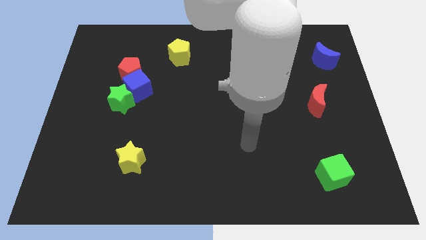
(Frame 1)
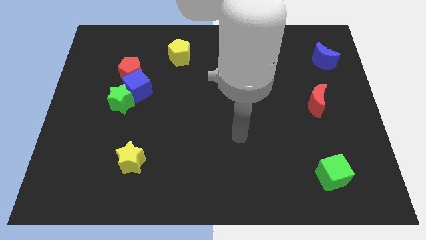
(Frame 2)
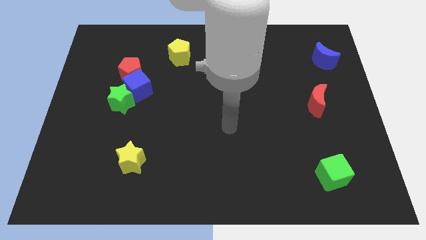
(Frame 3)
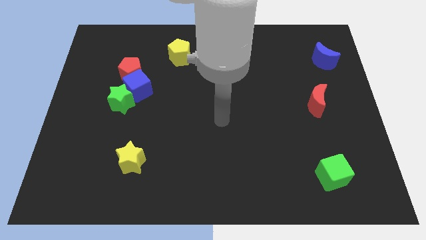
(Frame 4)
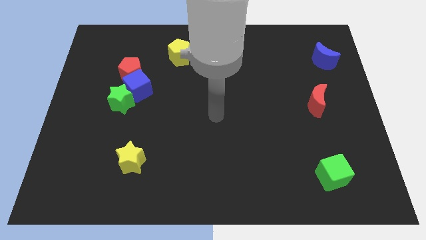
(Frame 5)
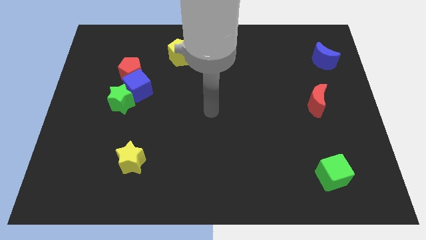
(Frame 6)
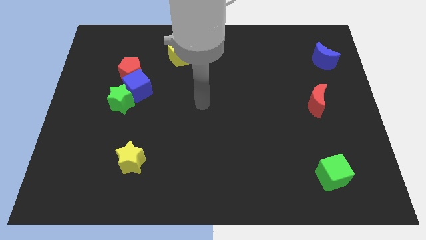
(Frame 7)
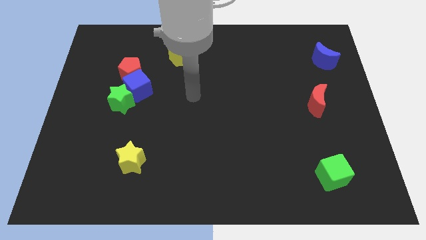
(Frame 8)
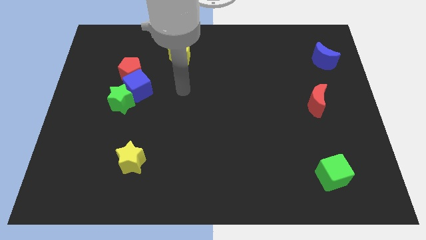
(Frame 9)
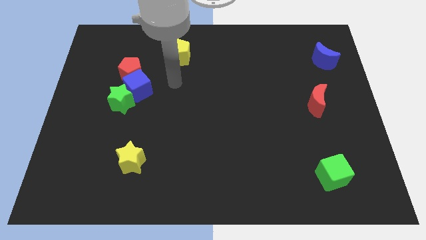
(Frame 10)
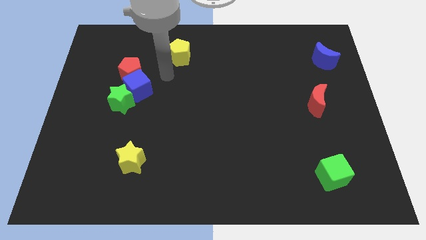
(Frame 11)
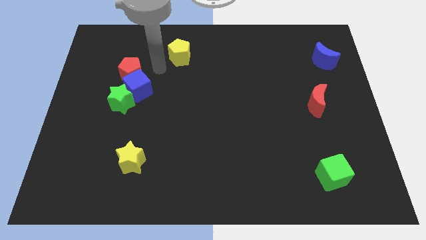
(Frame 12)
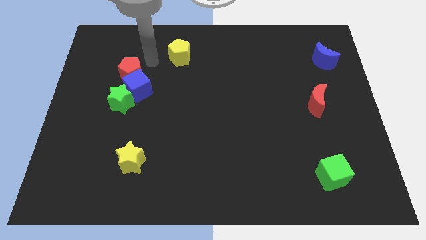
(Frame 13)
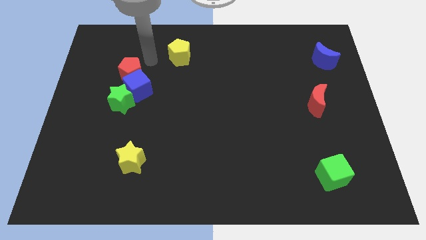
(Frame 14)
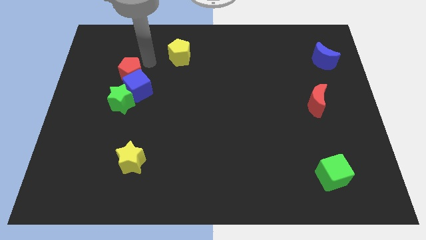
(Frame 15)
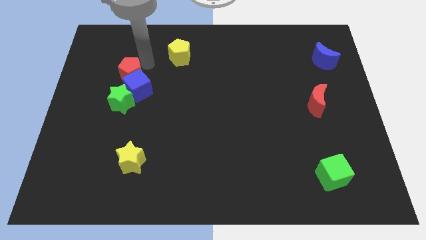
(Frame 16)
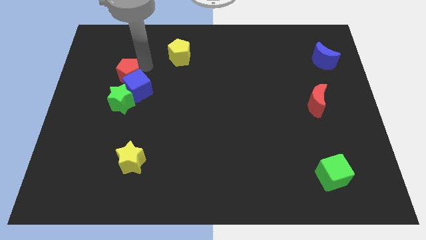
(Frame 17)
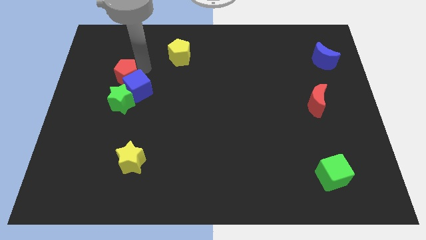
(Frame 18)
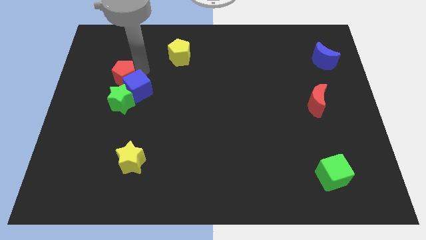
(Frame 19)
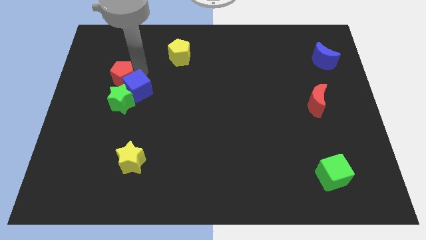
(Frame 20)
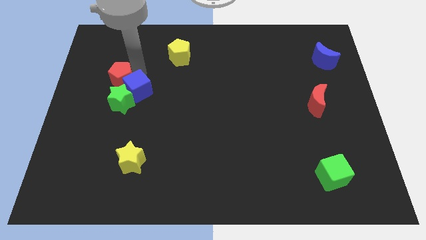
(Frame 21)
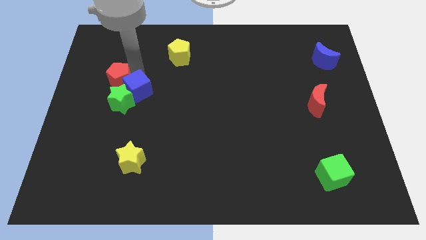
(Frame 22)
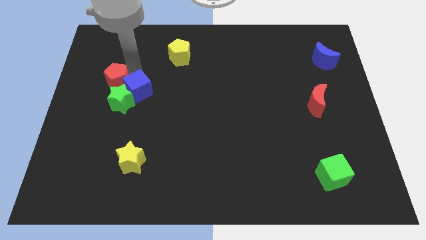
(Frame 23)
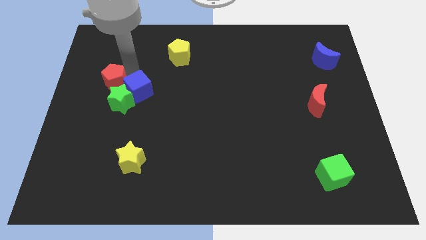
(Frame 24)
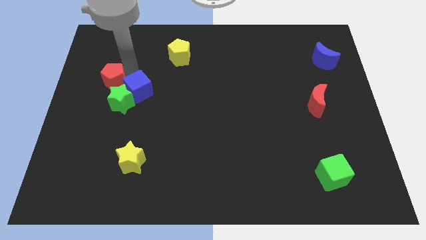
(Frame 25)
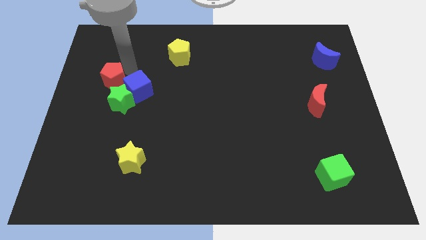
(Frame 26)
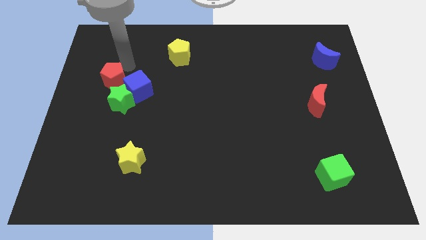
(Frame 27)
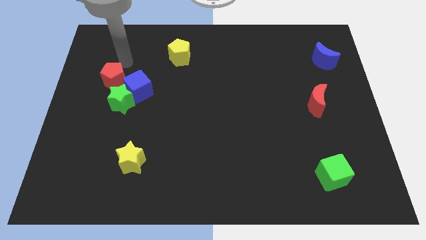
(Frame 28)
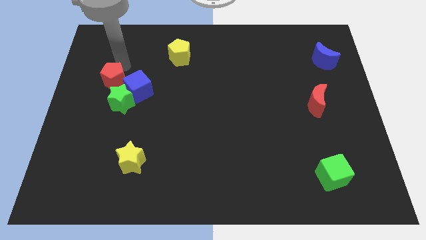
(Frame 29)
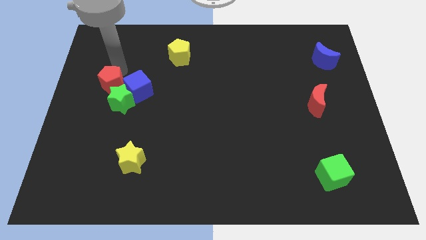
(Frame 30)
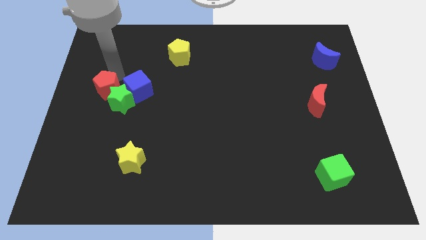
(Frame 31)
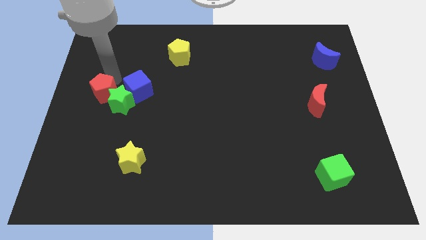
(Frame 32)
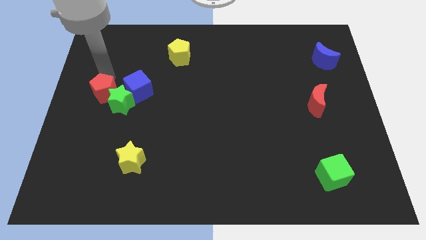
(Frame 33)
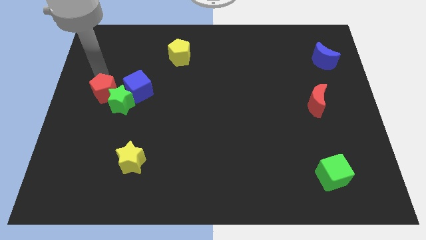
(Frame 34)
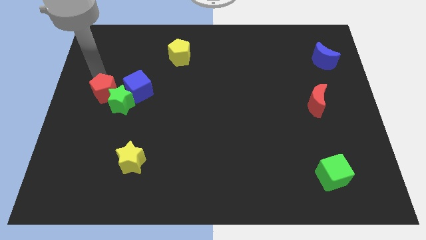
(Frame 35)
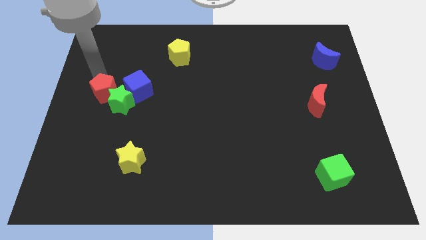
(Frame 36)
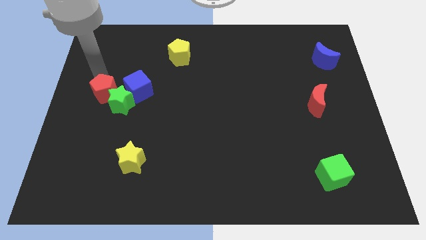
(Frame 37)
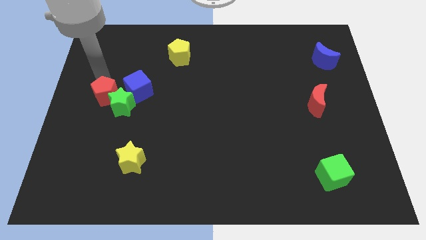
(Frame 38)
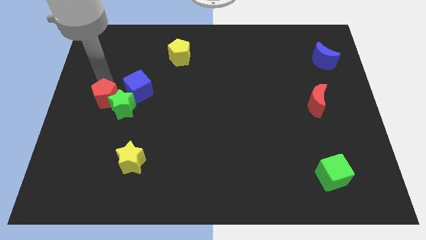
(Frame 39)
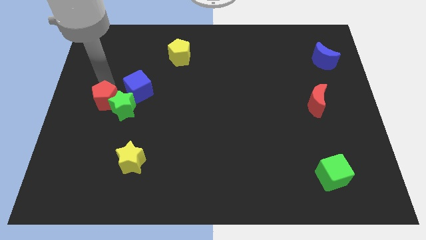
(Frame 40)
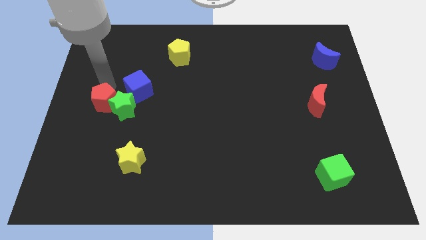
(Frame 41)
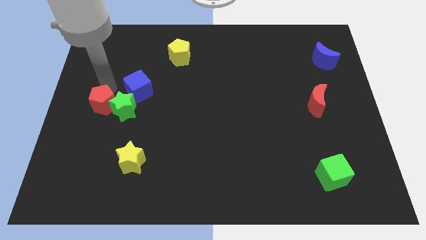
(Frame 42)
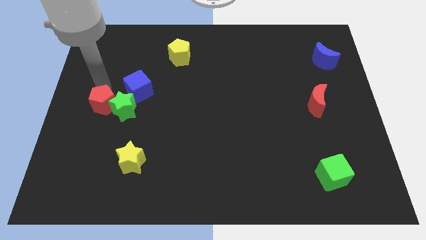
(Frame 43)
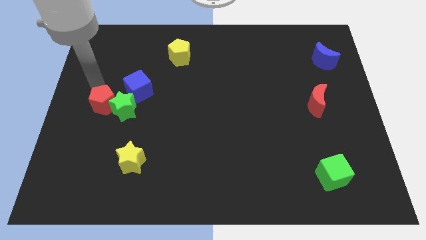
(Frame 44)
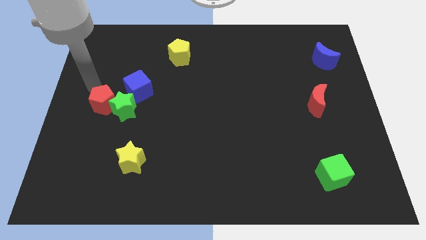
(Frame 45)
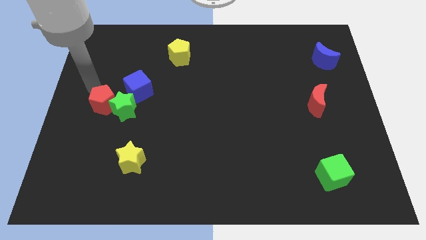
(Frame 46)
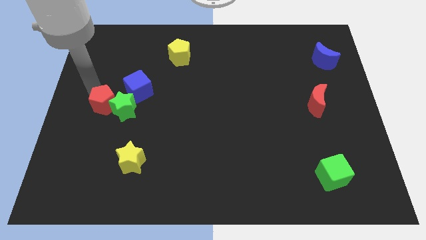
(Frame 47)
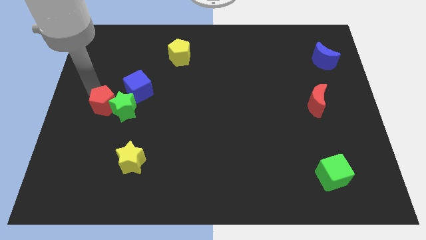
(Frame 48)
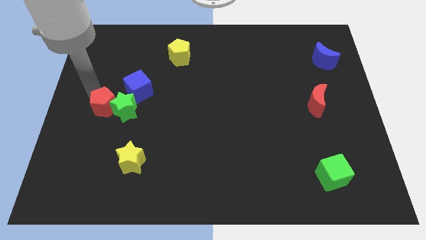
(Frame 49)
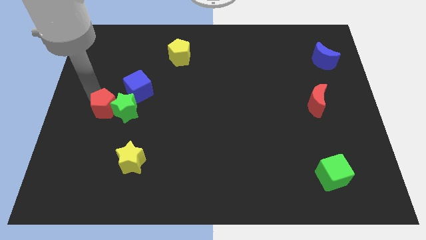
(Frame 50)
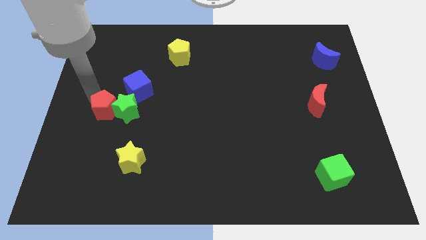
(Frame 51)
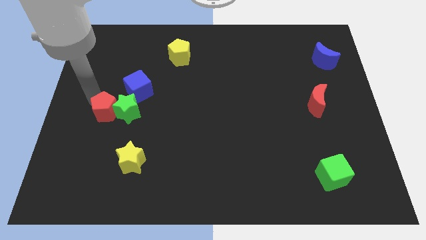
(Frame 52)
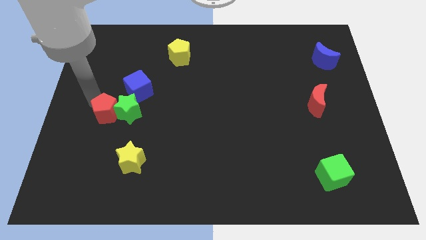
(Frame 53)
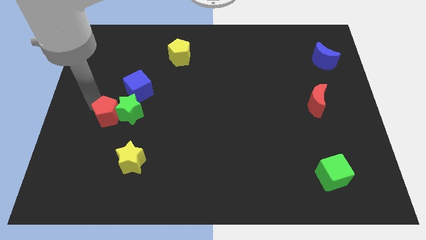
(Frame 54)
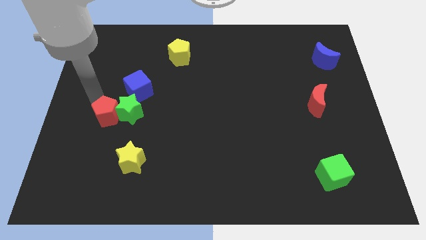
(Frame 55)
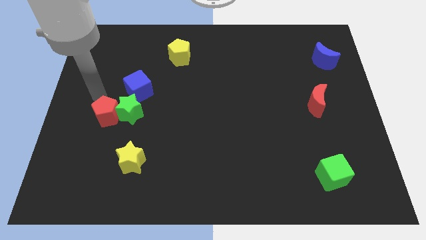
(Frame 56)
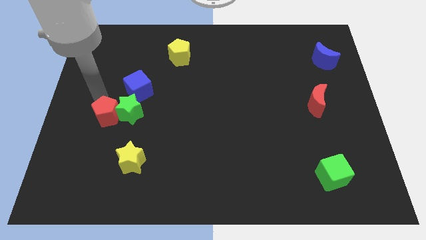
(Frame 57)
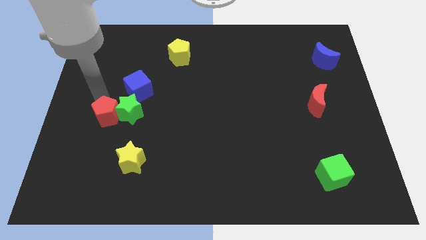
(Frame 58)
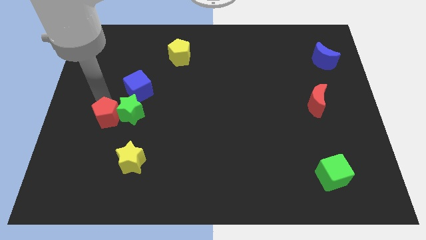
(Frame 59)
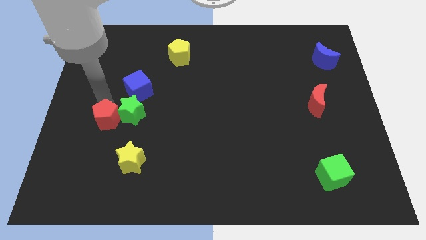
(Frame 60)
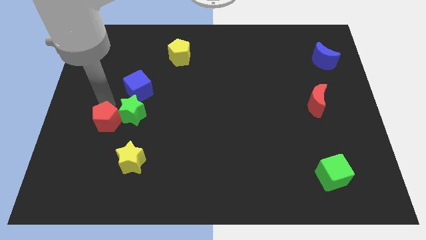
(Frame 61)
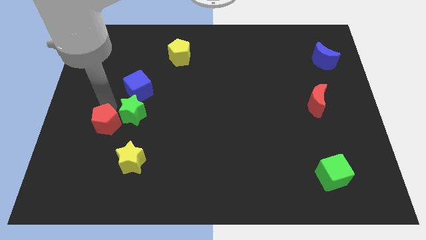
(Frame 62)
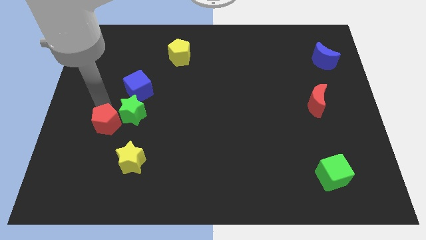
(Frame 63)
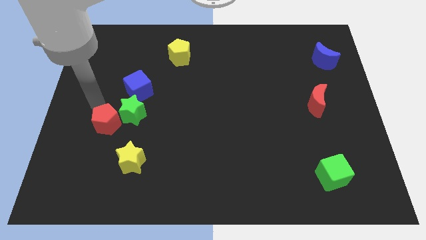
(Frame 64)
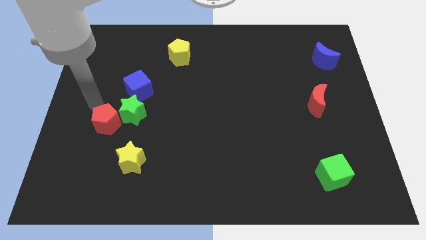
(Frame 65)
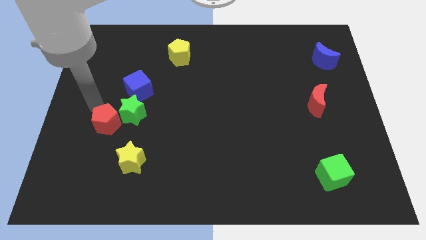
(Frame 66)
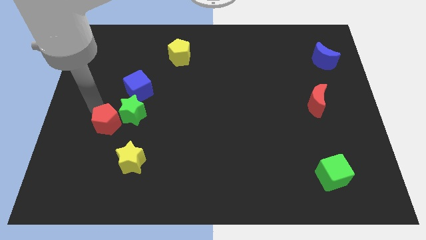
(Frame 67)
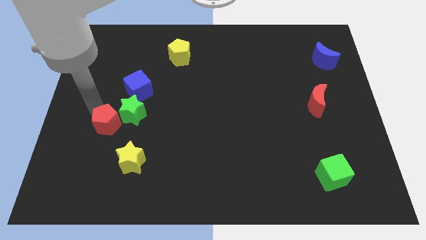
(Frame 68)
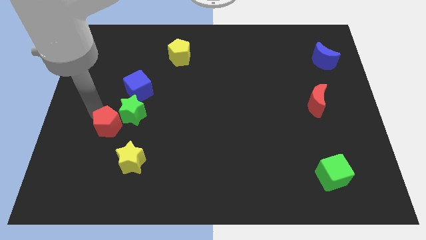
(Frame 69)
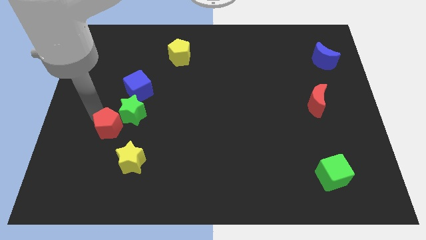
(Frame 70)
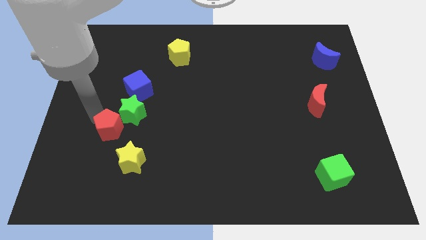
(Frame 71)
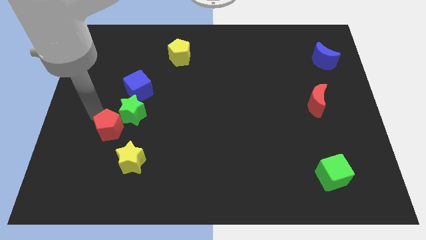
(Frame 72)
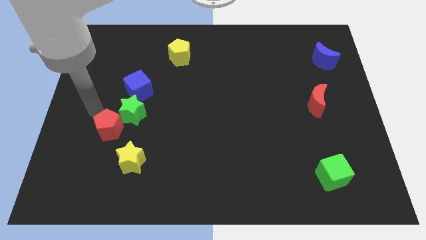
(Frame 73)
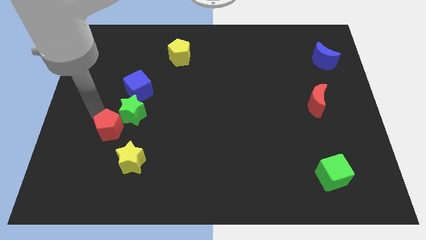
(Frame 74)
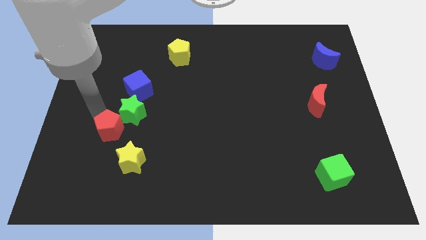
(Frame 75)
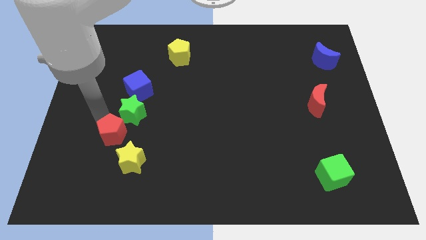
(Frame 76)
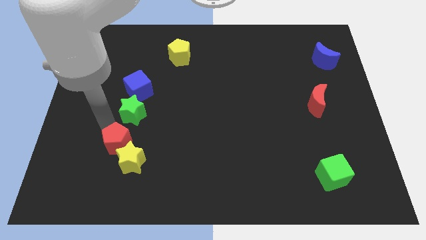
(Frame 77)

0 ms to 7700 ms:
put the red pentagon close to the yellow star
